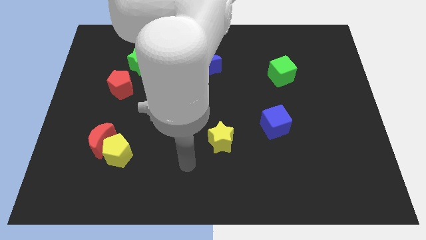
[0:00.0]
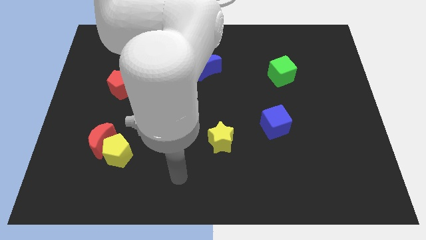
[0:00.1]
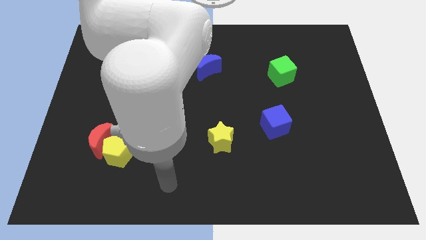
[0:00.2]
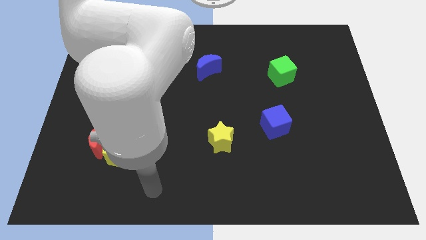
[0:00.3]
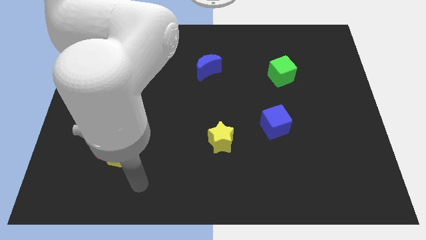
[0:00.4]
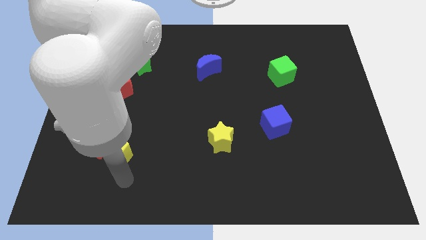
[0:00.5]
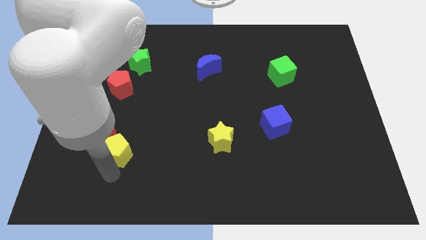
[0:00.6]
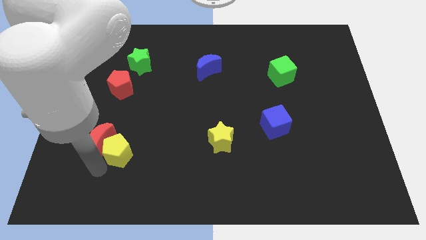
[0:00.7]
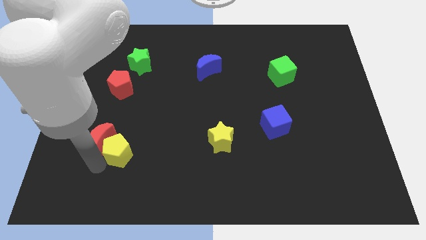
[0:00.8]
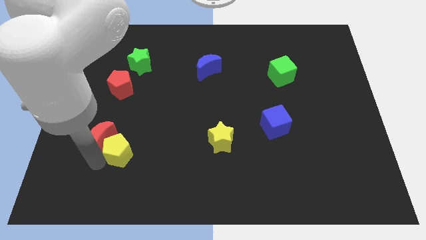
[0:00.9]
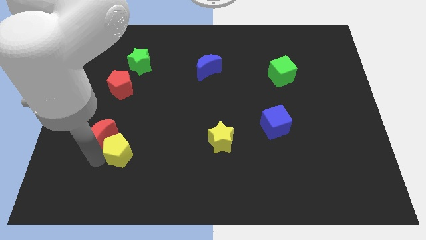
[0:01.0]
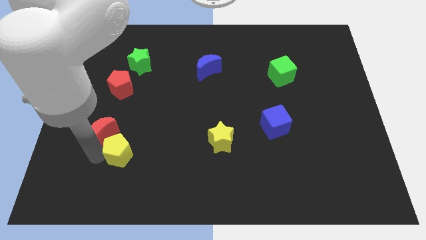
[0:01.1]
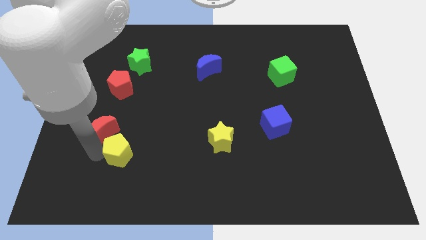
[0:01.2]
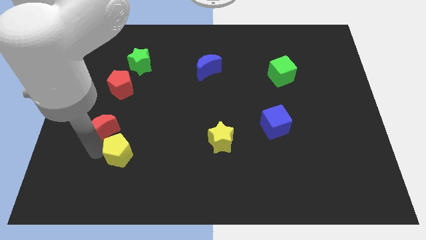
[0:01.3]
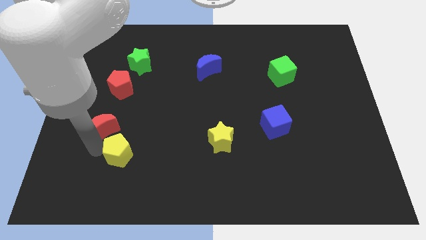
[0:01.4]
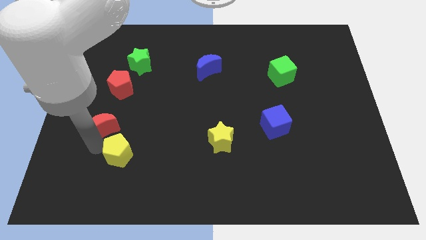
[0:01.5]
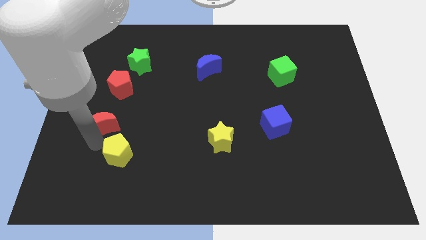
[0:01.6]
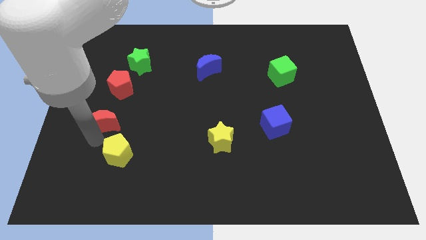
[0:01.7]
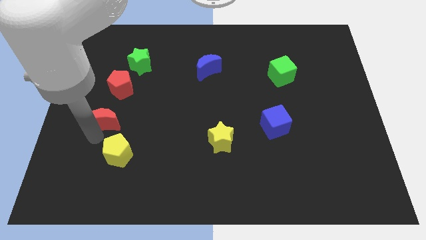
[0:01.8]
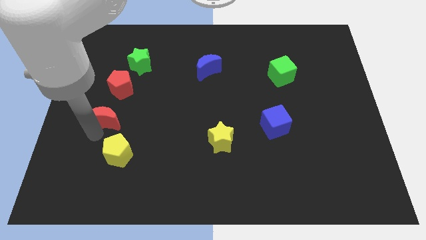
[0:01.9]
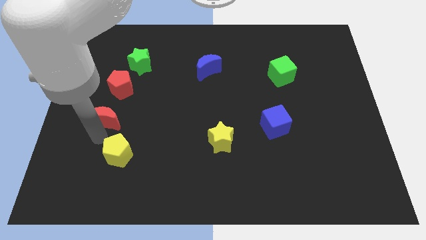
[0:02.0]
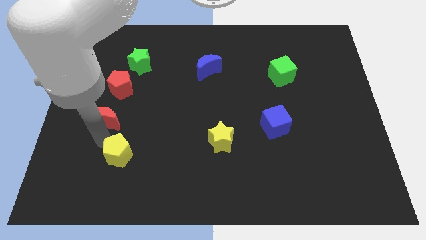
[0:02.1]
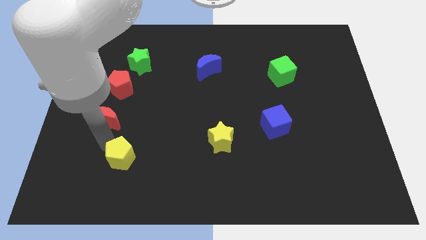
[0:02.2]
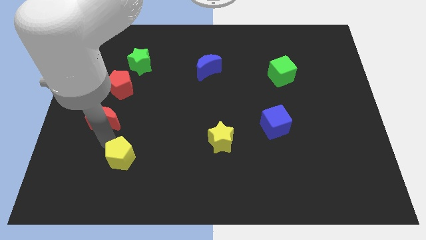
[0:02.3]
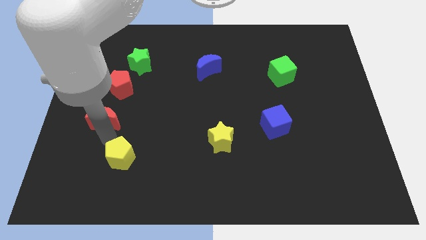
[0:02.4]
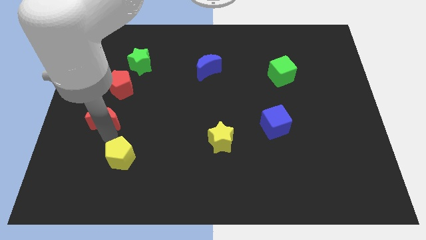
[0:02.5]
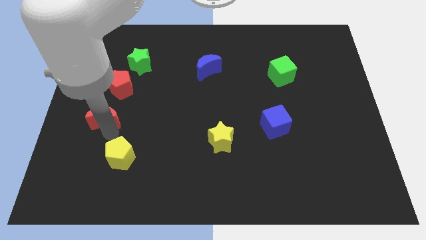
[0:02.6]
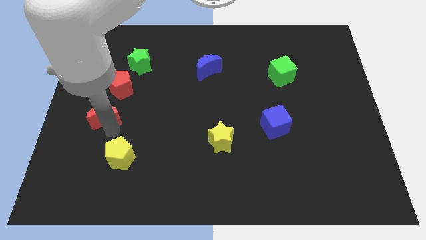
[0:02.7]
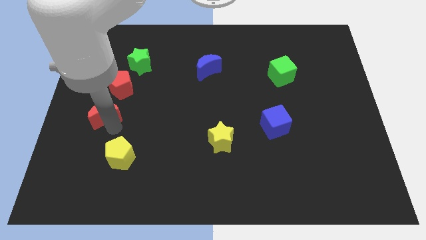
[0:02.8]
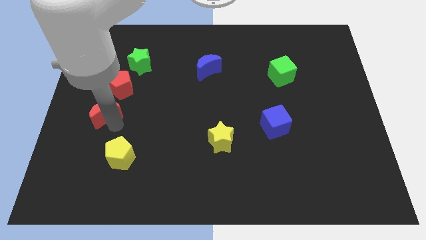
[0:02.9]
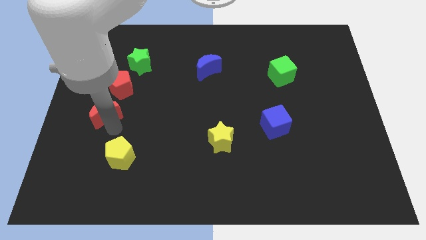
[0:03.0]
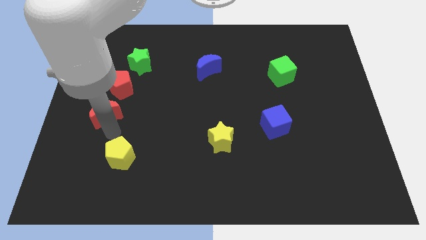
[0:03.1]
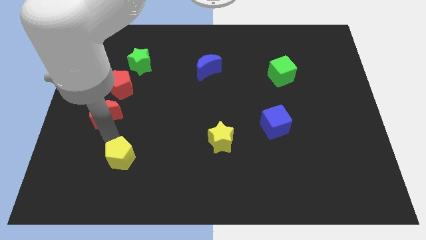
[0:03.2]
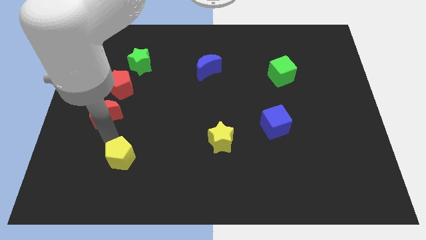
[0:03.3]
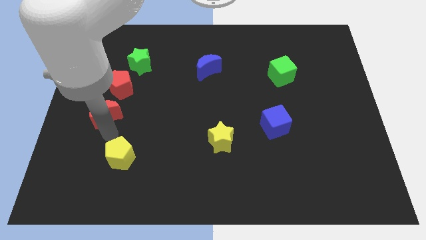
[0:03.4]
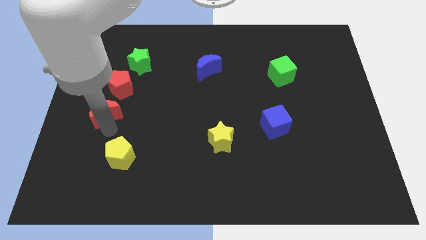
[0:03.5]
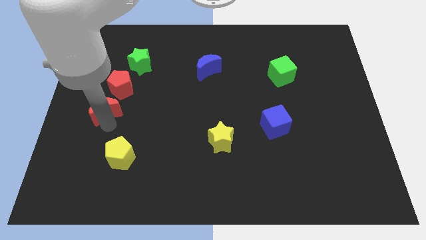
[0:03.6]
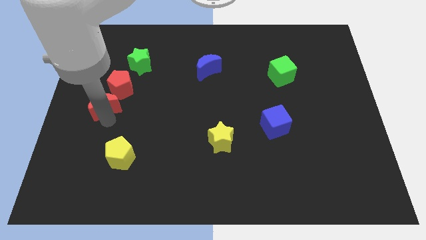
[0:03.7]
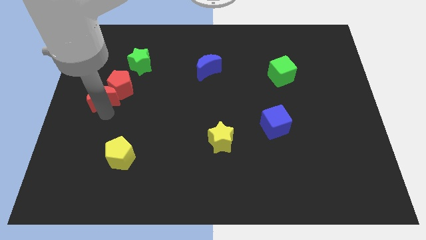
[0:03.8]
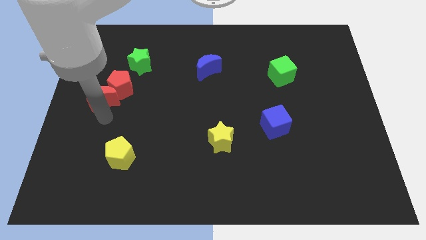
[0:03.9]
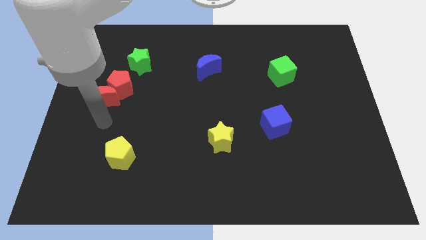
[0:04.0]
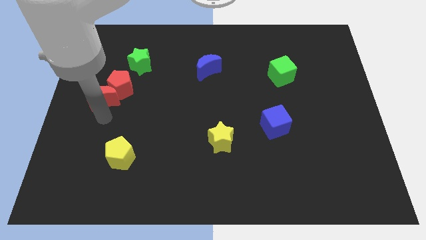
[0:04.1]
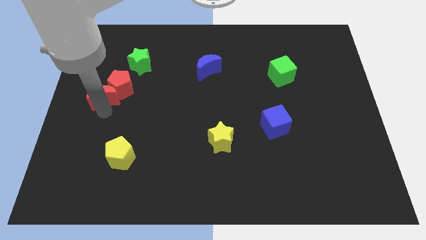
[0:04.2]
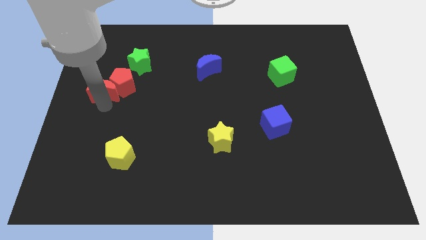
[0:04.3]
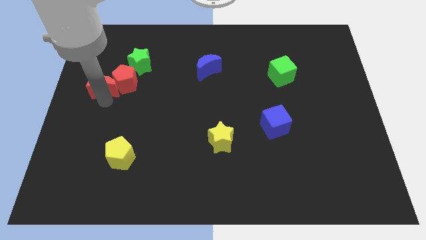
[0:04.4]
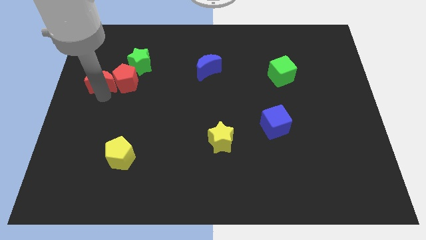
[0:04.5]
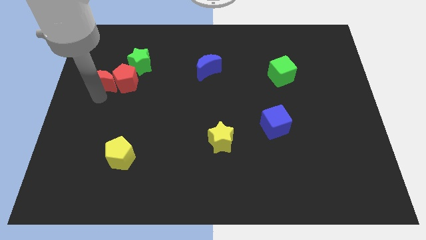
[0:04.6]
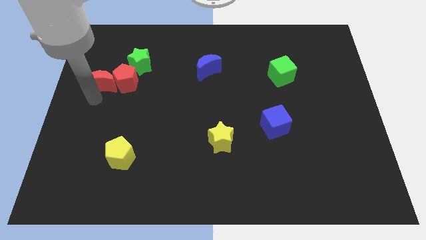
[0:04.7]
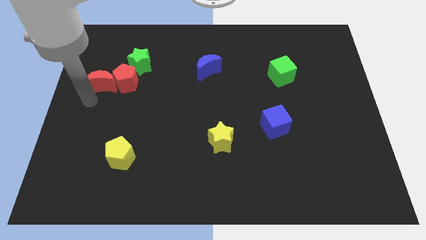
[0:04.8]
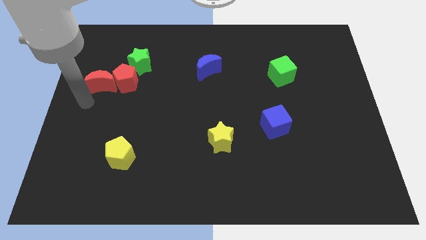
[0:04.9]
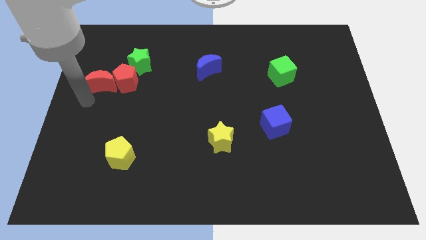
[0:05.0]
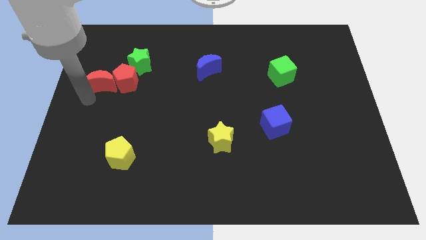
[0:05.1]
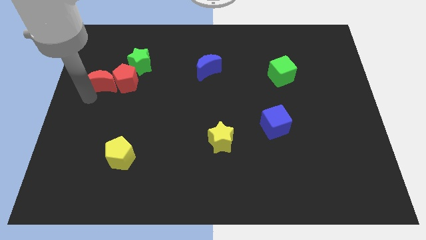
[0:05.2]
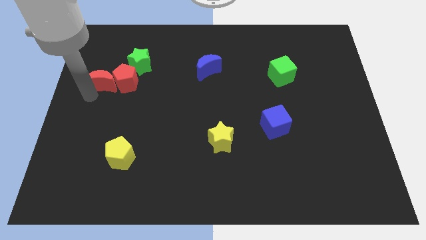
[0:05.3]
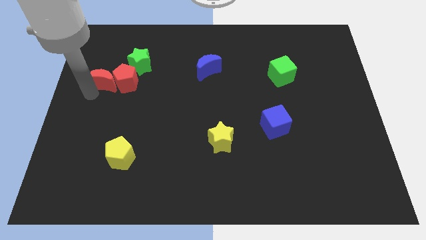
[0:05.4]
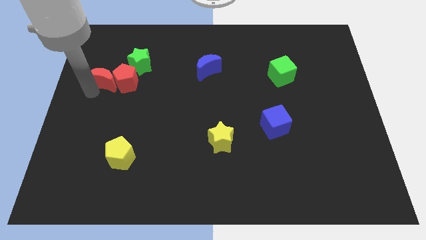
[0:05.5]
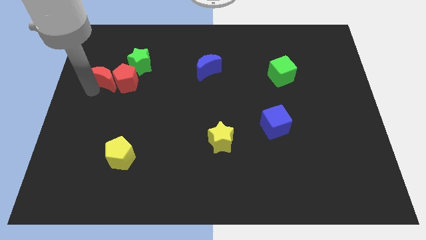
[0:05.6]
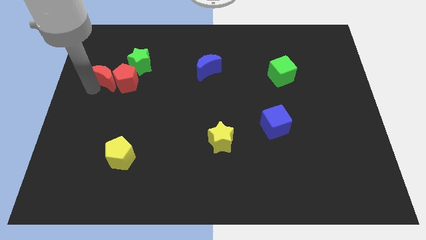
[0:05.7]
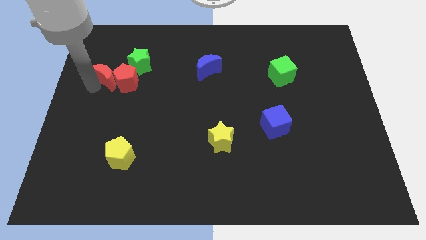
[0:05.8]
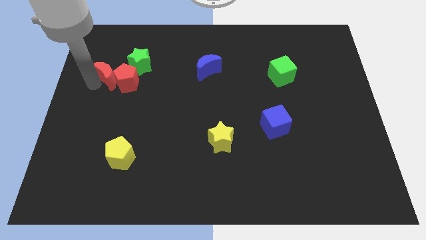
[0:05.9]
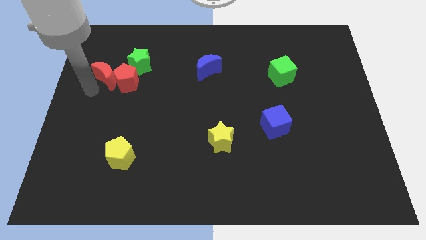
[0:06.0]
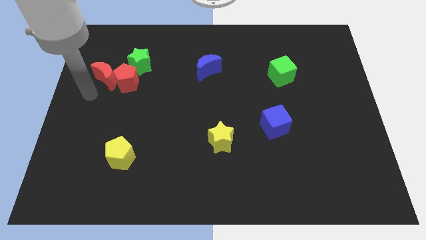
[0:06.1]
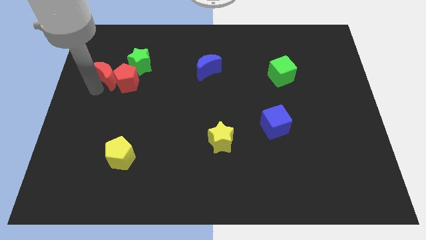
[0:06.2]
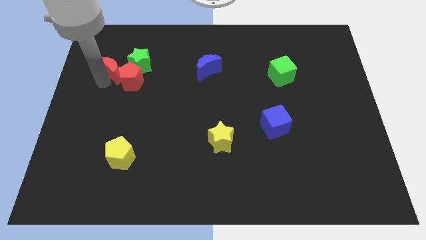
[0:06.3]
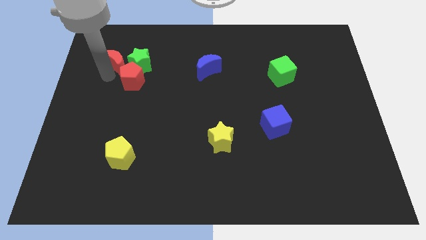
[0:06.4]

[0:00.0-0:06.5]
slide the red moon above the red pentagon
